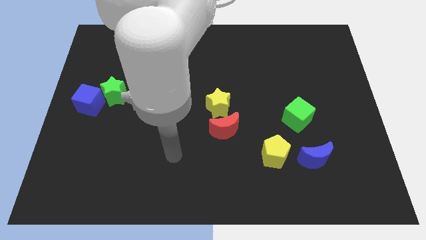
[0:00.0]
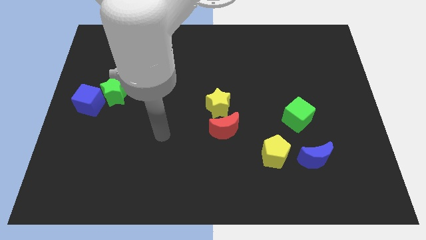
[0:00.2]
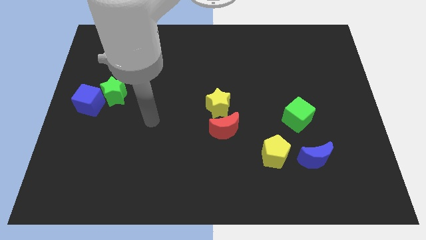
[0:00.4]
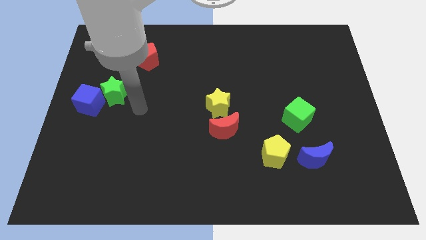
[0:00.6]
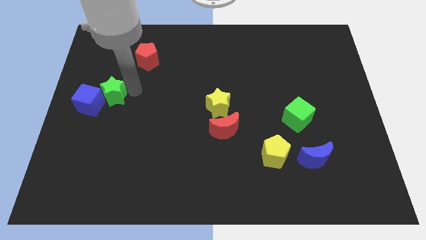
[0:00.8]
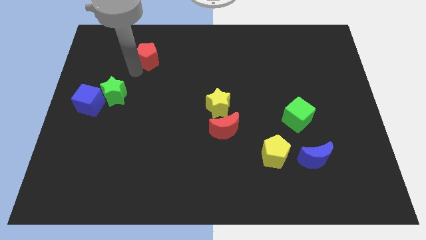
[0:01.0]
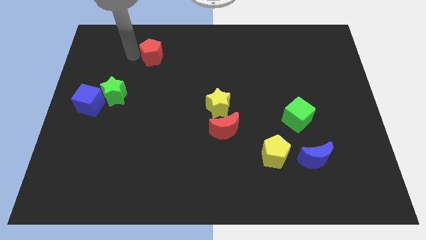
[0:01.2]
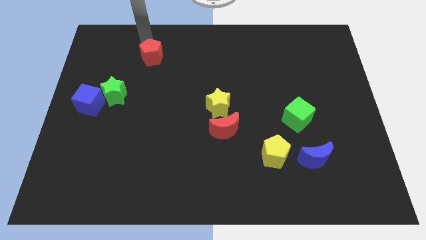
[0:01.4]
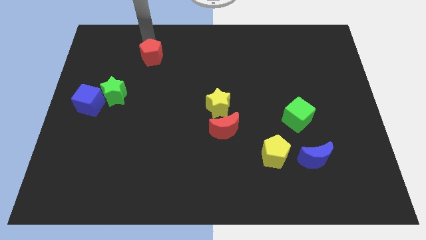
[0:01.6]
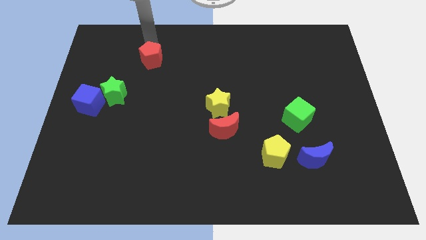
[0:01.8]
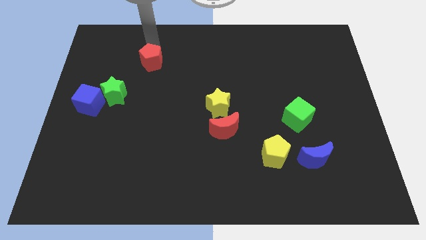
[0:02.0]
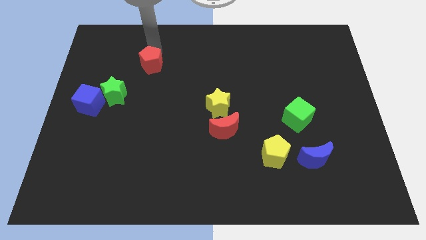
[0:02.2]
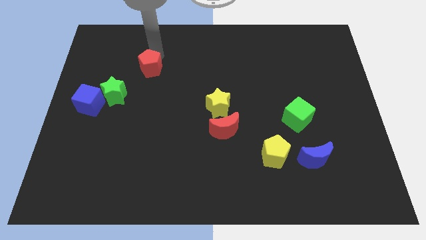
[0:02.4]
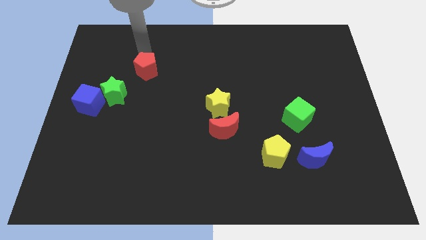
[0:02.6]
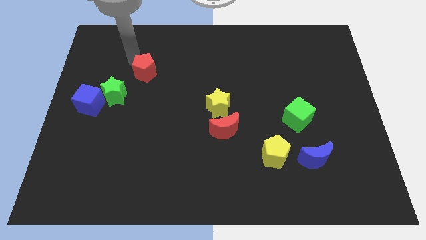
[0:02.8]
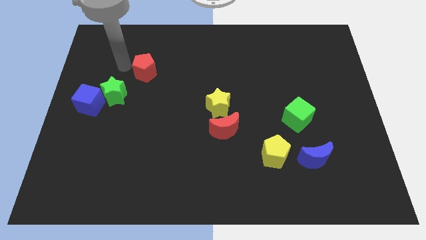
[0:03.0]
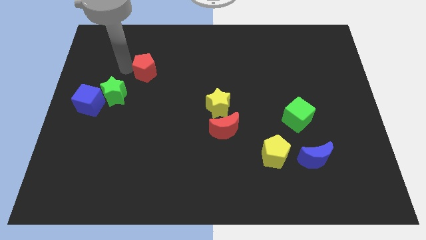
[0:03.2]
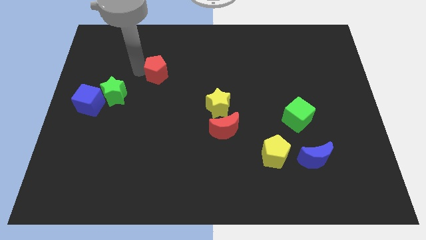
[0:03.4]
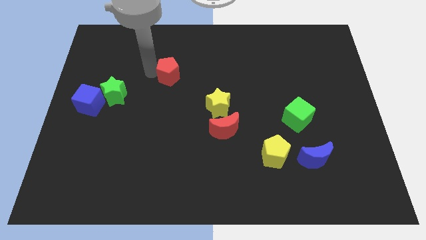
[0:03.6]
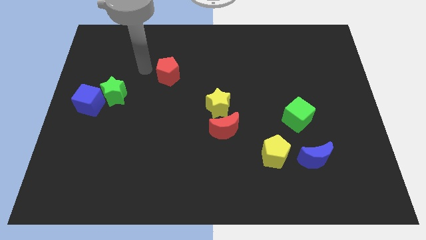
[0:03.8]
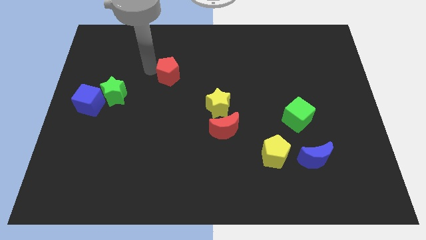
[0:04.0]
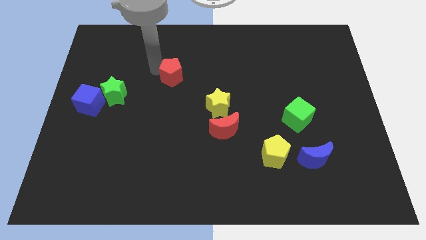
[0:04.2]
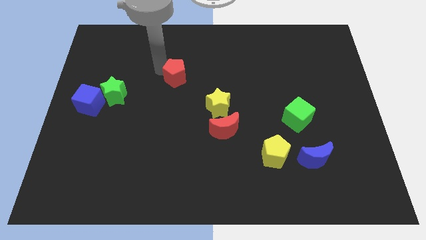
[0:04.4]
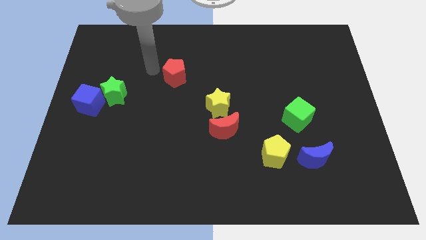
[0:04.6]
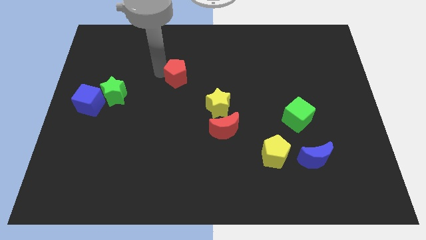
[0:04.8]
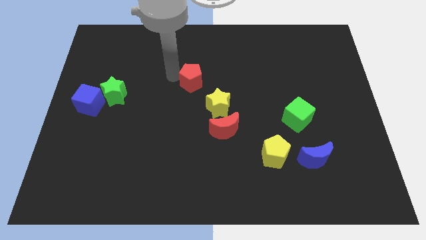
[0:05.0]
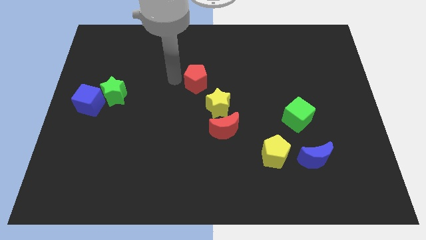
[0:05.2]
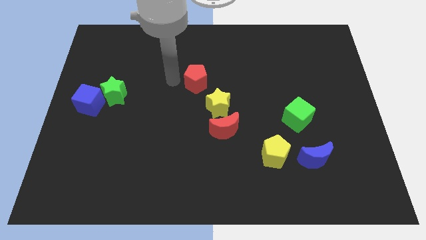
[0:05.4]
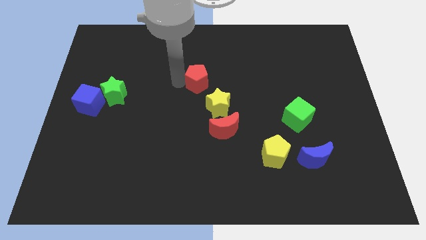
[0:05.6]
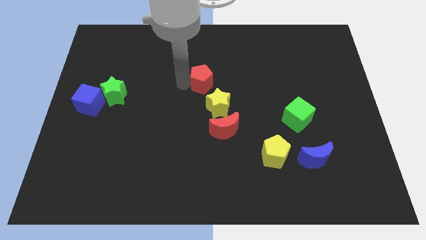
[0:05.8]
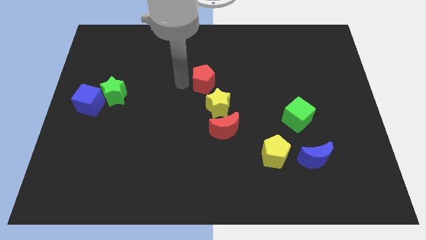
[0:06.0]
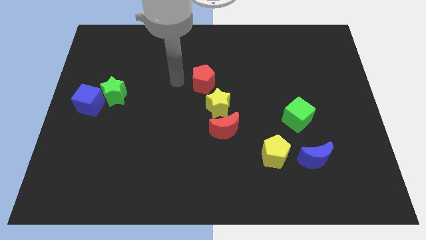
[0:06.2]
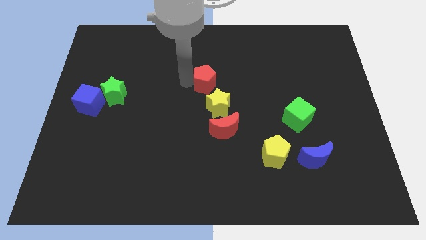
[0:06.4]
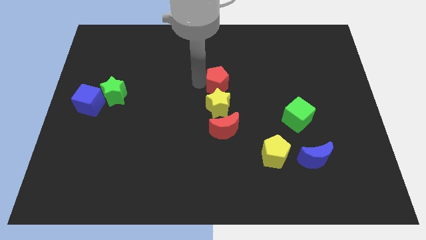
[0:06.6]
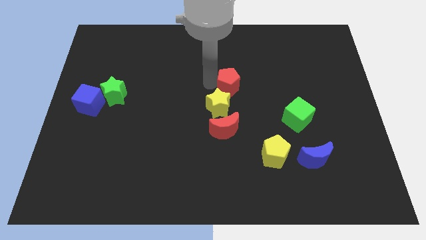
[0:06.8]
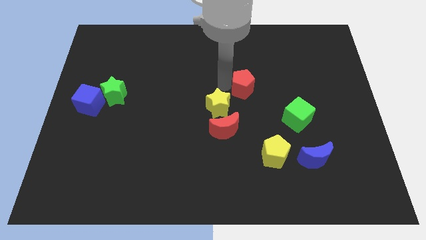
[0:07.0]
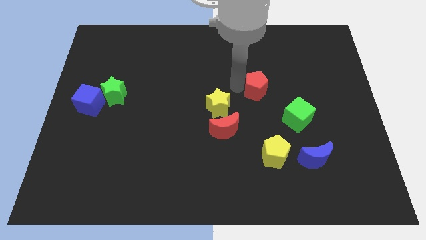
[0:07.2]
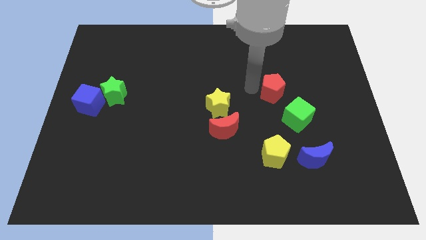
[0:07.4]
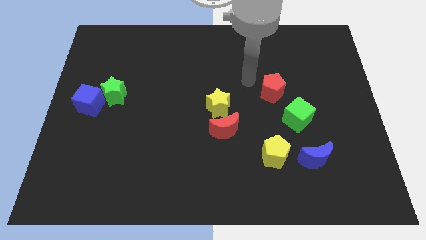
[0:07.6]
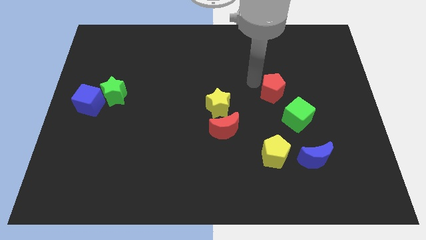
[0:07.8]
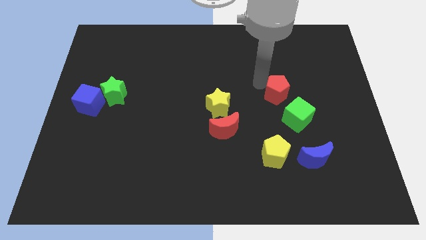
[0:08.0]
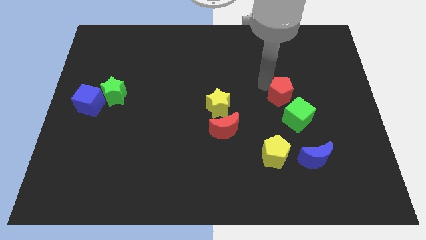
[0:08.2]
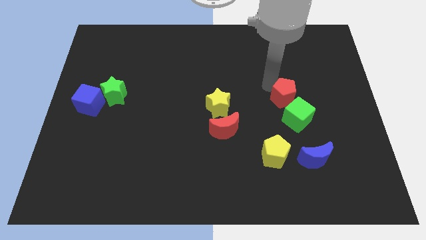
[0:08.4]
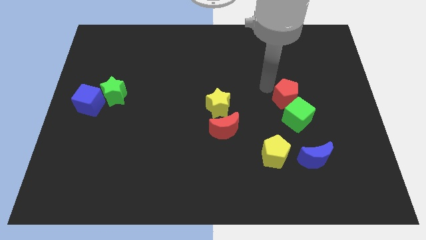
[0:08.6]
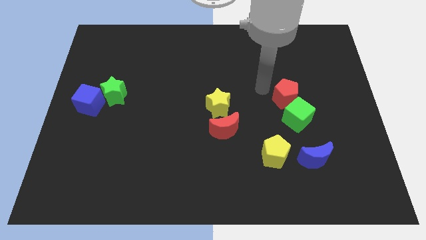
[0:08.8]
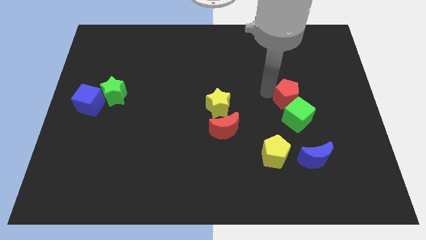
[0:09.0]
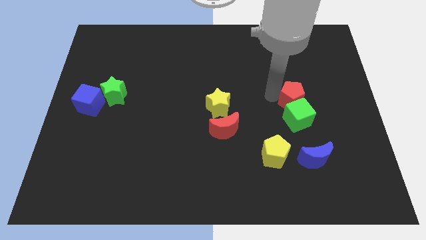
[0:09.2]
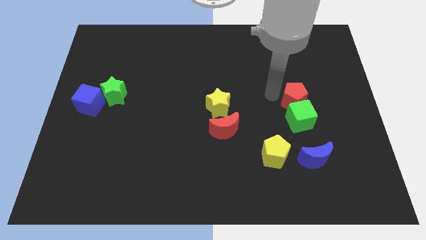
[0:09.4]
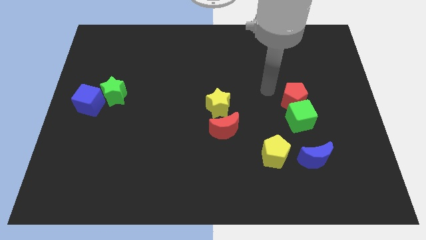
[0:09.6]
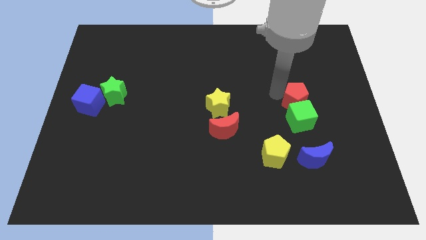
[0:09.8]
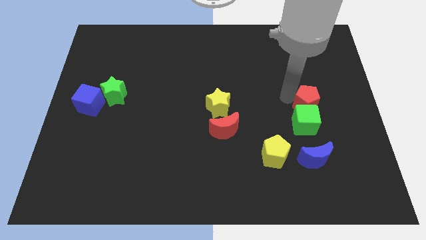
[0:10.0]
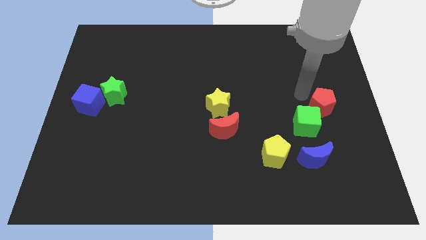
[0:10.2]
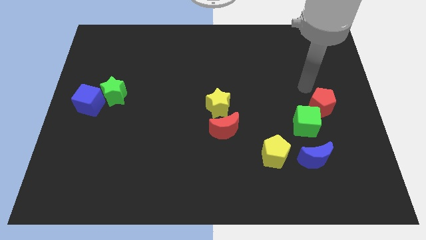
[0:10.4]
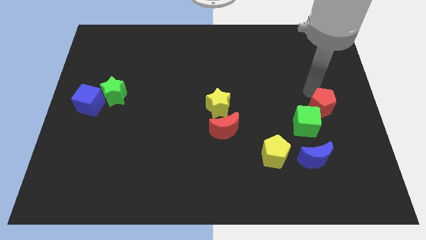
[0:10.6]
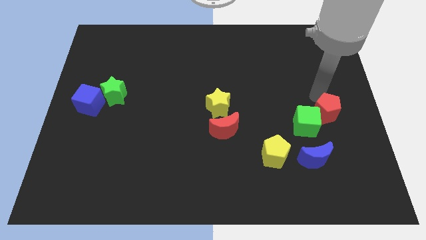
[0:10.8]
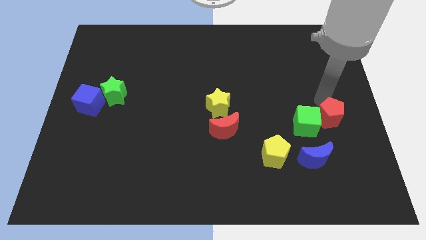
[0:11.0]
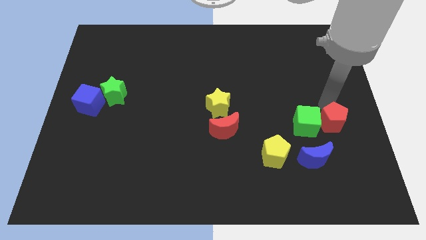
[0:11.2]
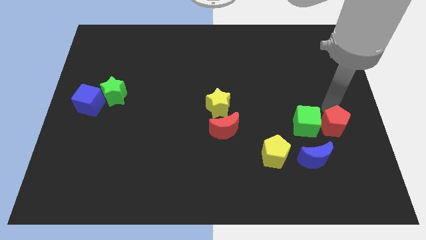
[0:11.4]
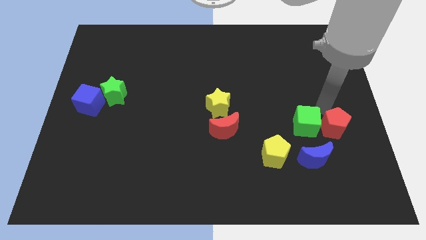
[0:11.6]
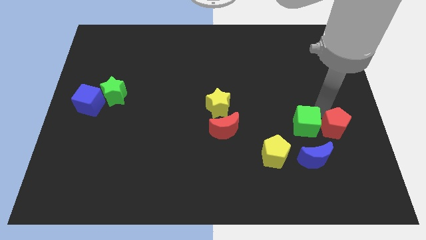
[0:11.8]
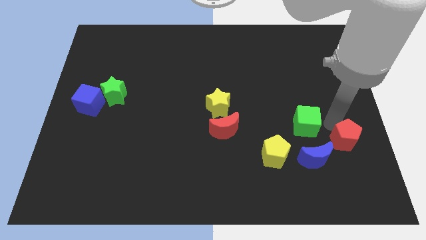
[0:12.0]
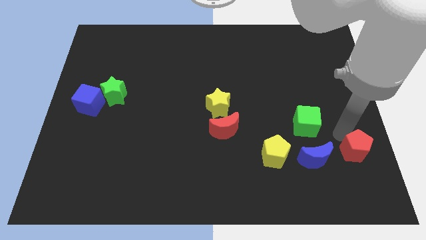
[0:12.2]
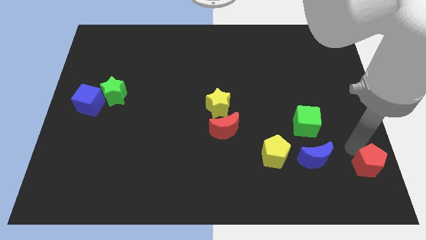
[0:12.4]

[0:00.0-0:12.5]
move the red pentagon to the bottom right corner
